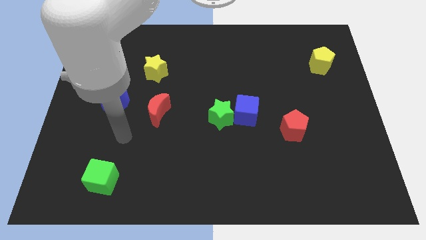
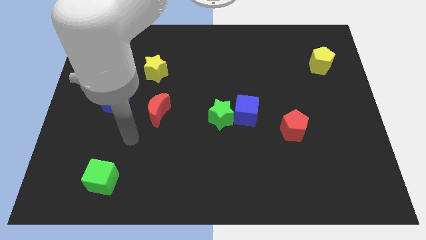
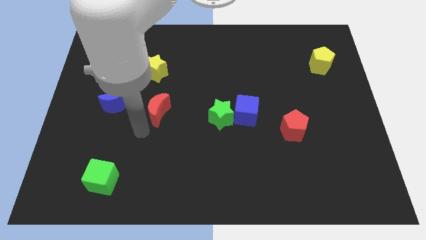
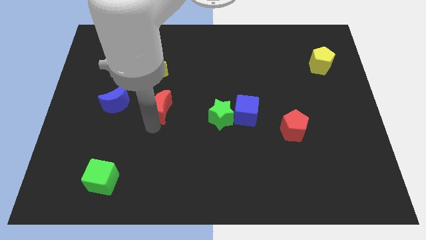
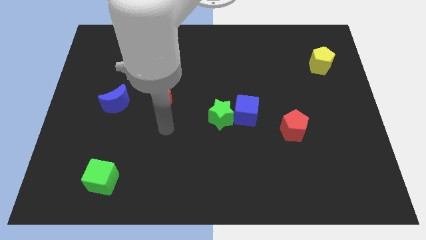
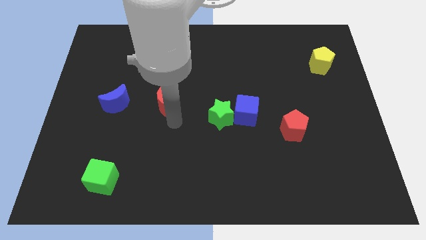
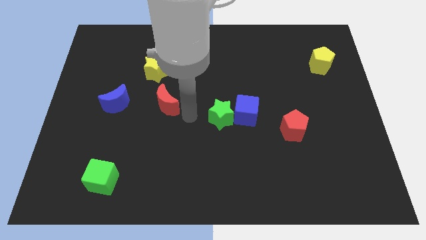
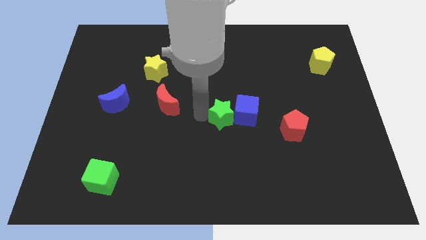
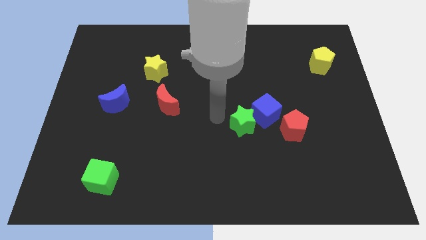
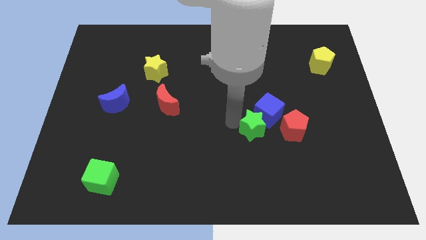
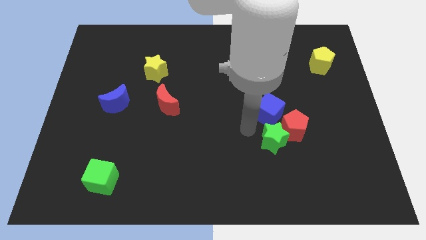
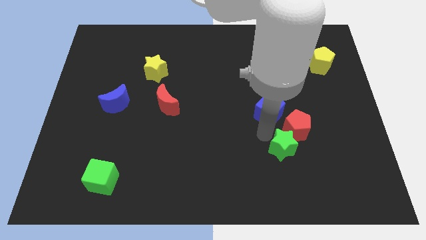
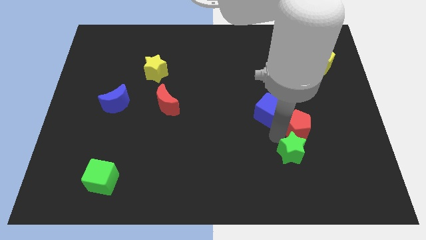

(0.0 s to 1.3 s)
separate the blue cube from the green star

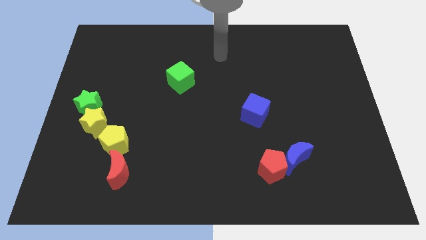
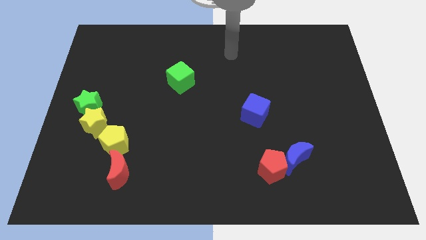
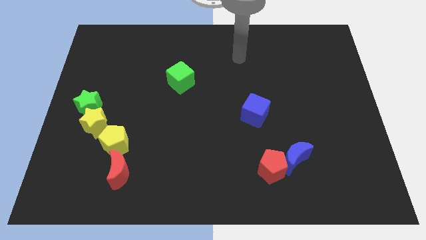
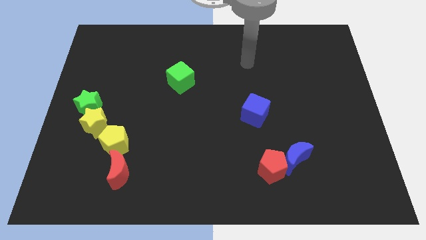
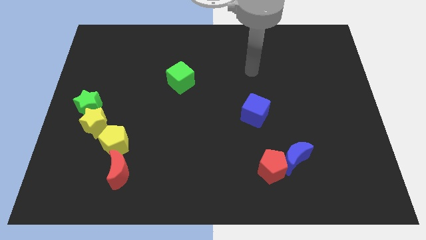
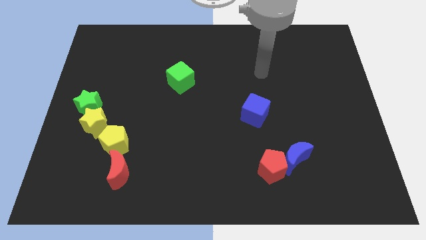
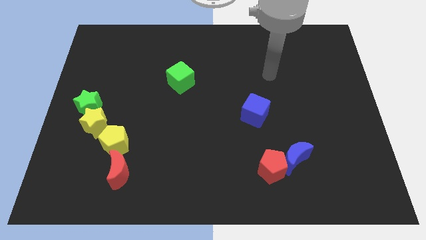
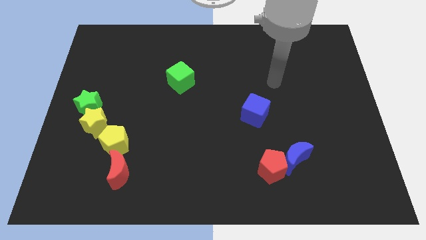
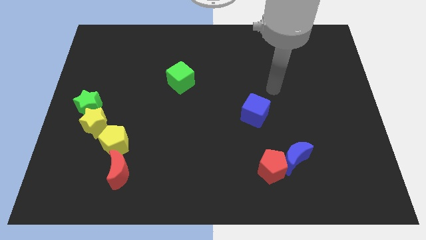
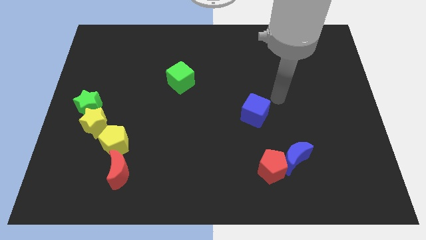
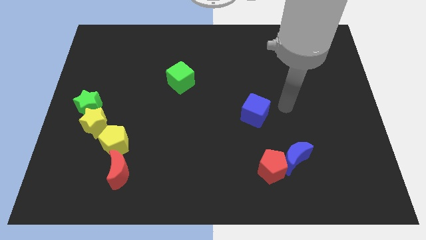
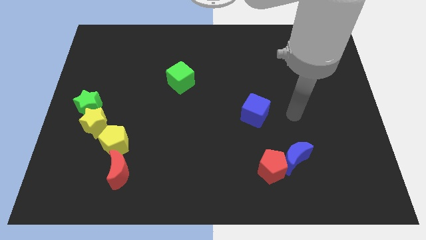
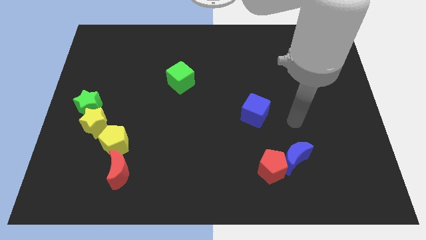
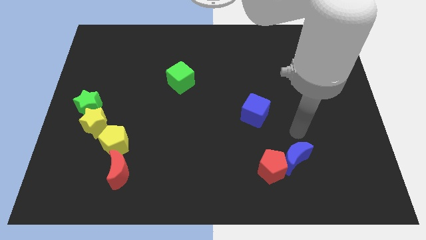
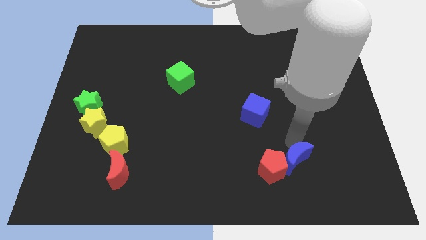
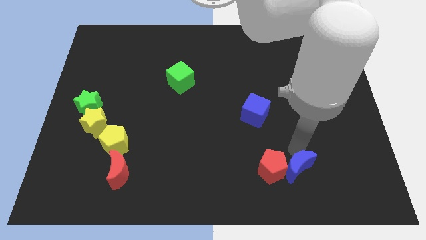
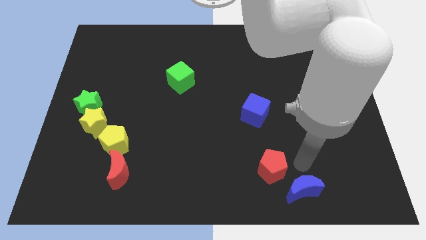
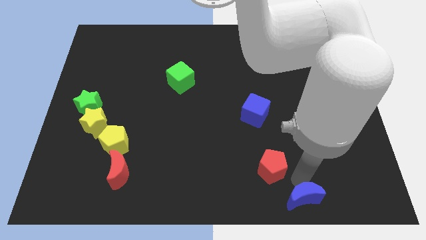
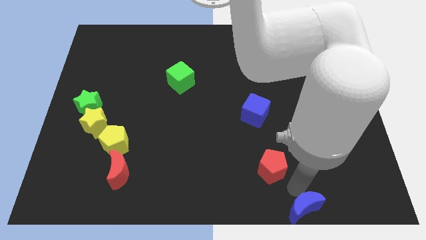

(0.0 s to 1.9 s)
separate the red pentagon from the blue moon

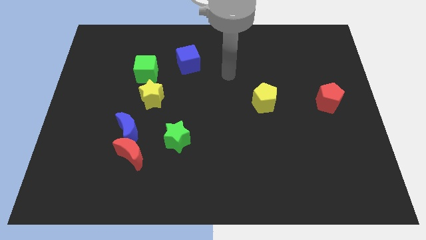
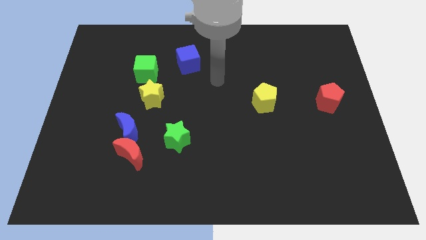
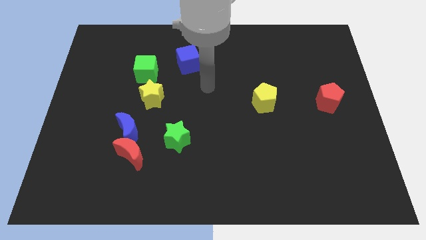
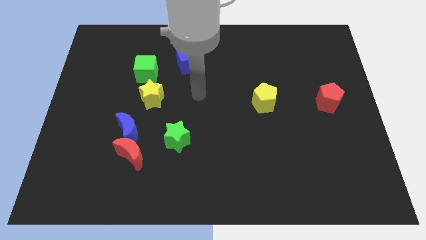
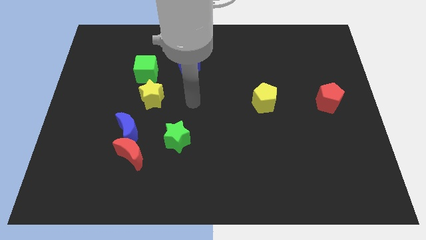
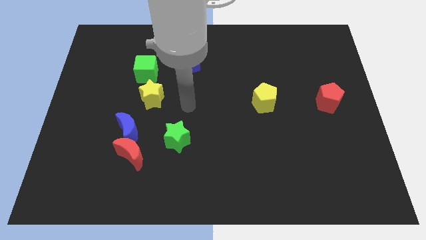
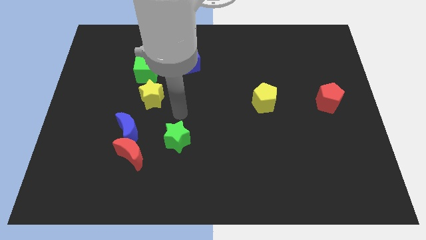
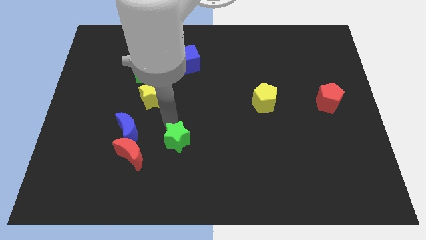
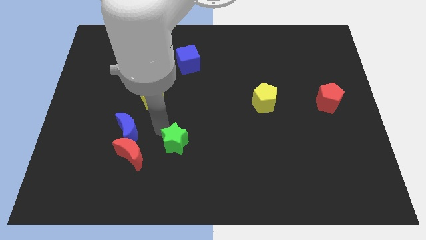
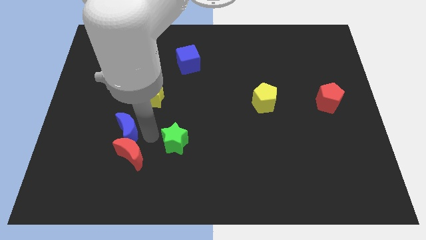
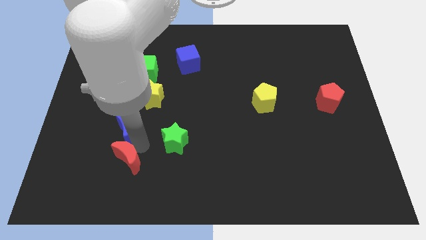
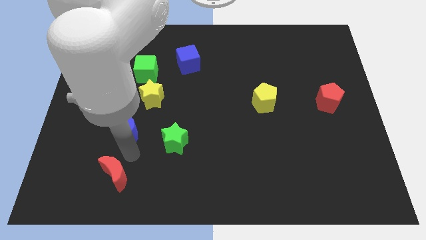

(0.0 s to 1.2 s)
pull the blue moon apart from the red moon

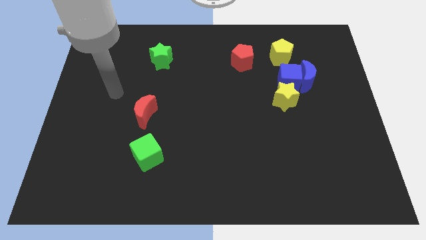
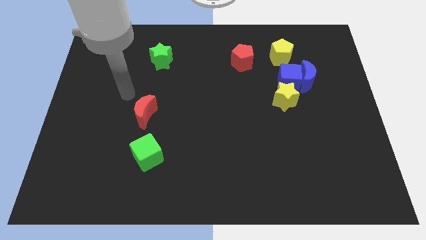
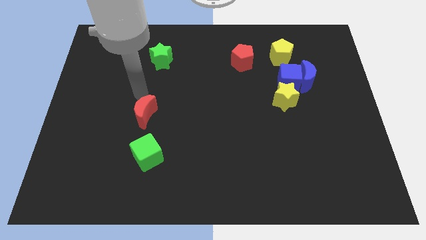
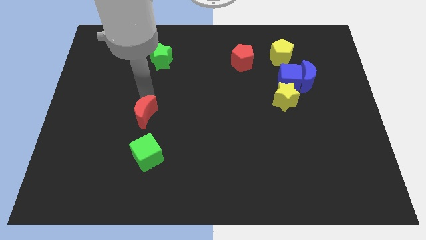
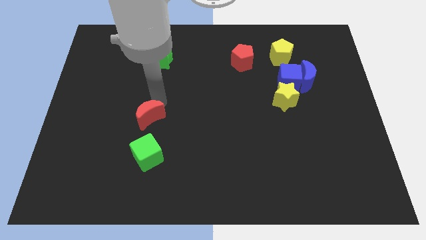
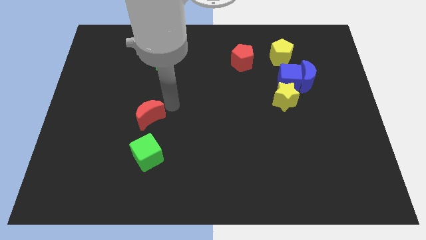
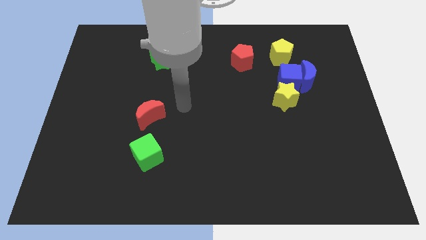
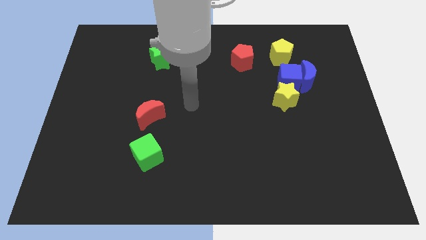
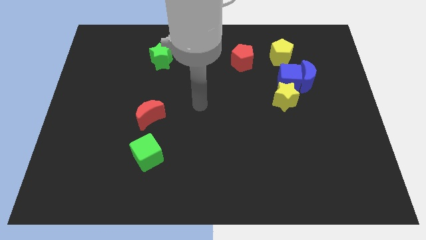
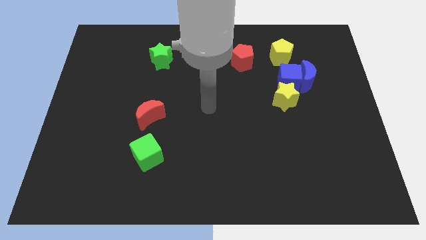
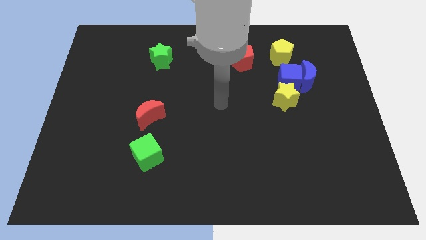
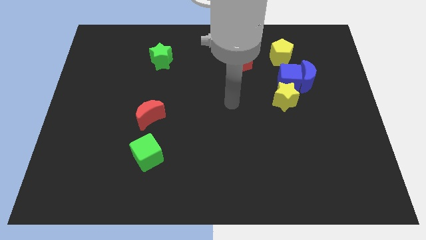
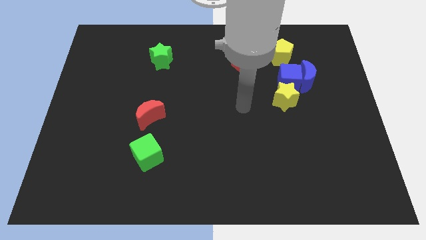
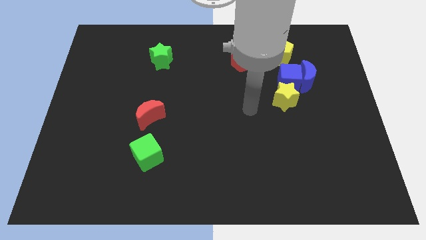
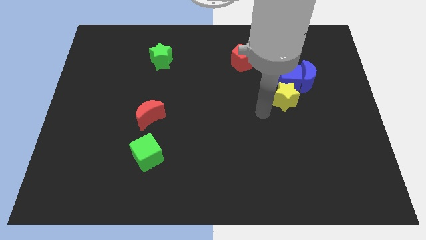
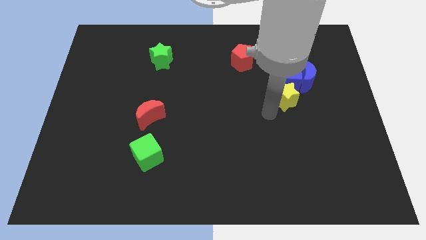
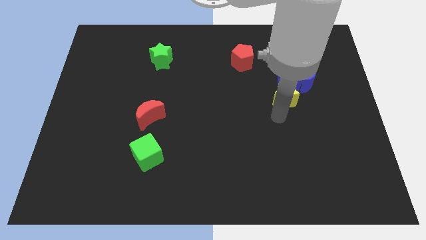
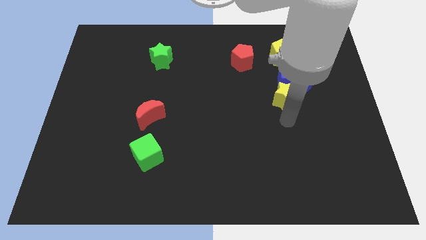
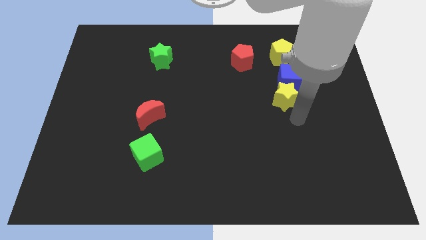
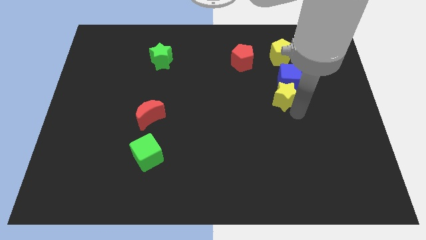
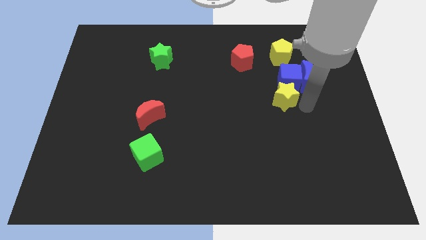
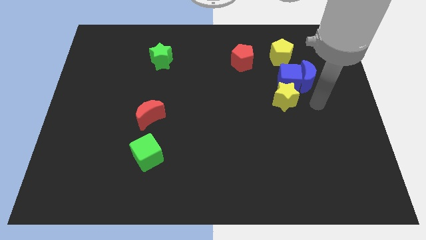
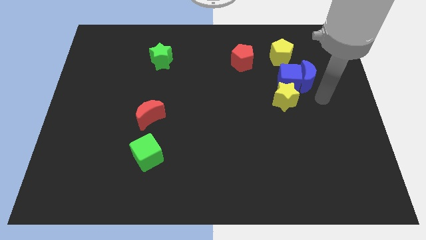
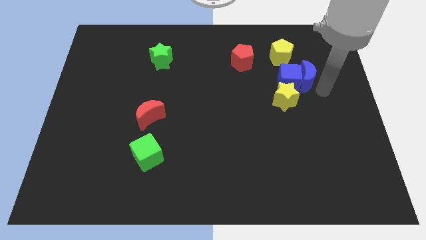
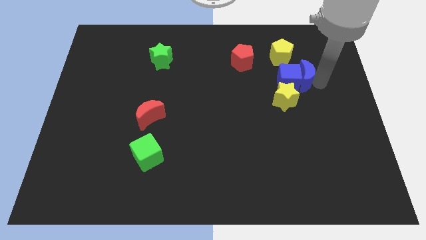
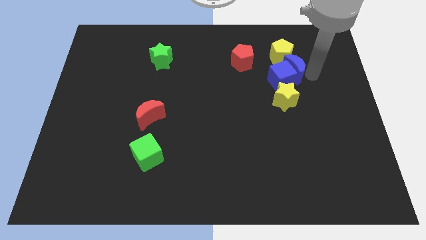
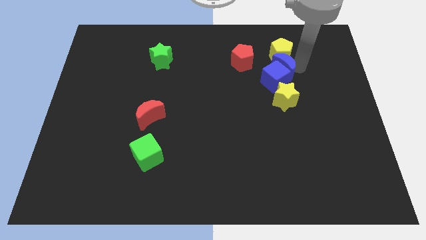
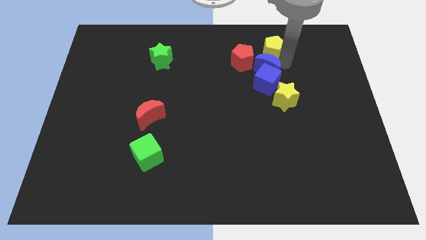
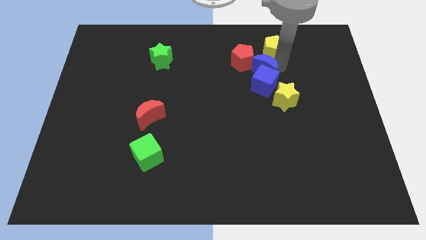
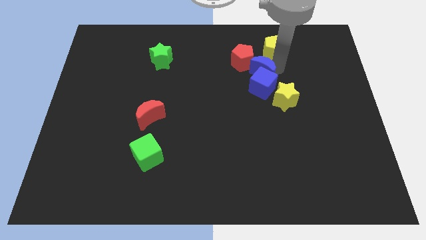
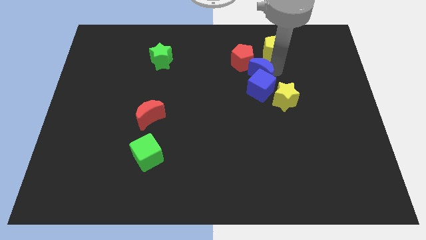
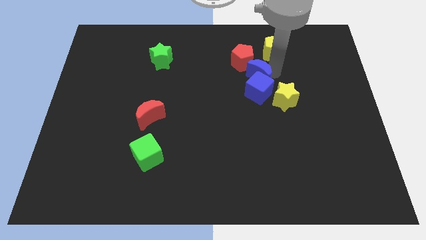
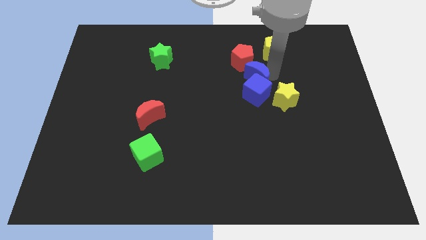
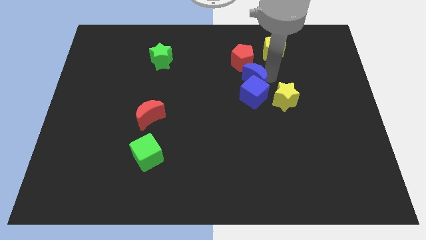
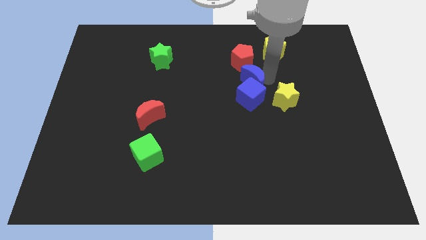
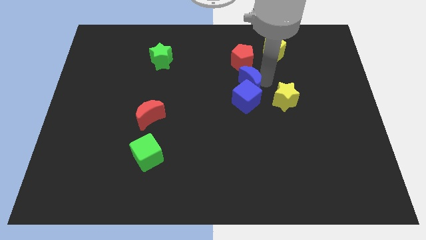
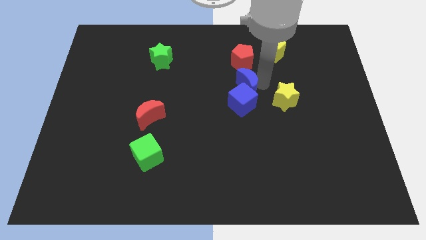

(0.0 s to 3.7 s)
separate the blue cube from the clump

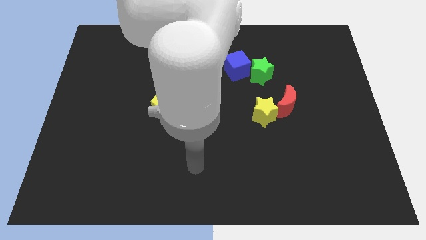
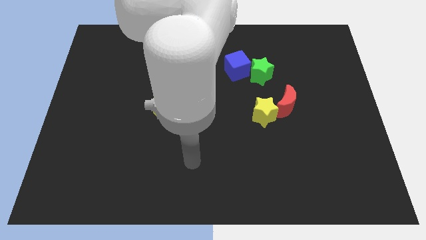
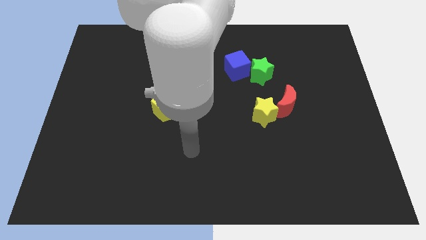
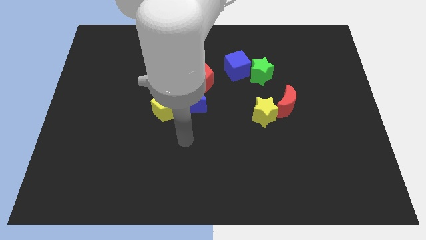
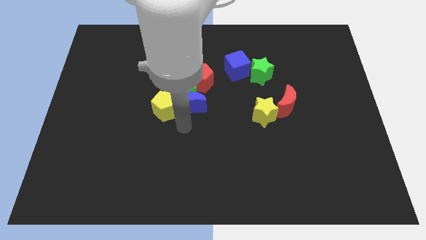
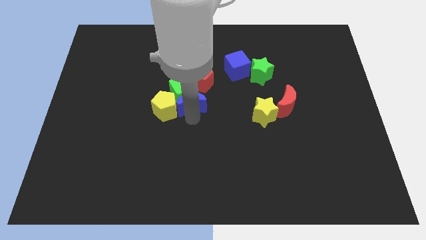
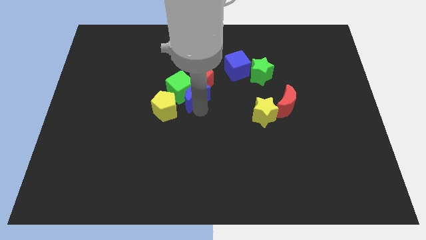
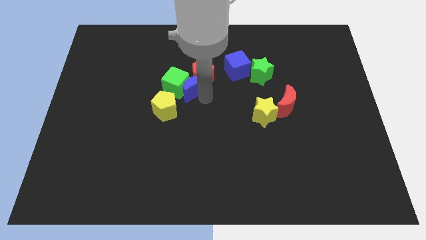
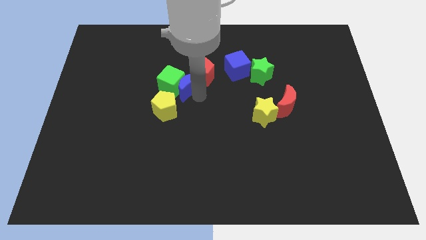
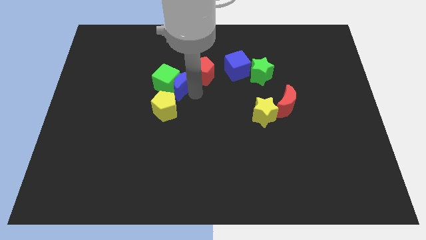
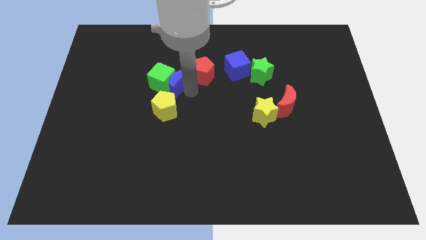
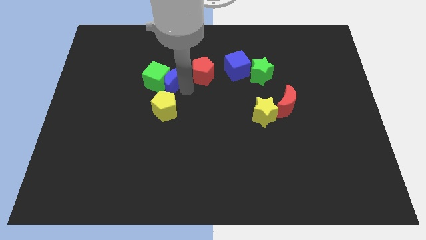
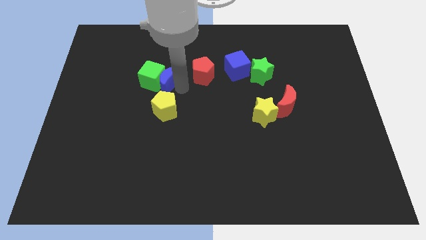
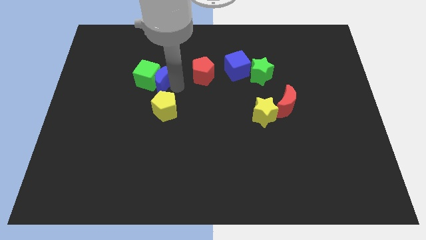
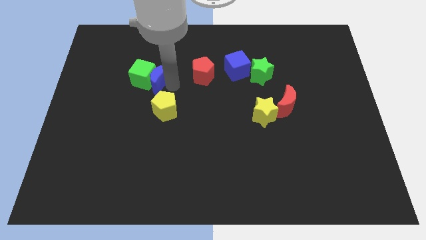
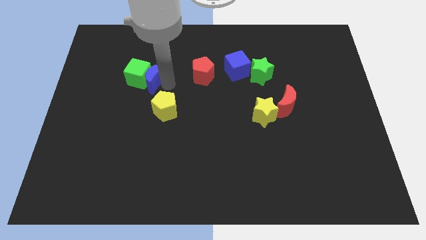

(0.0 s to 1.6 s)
pull the green cube apart from the blue moon, red pentagon, and yellow pentagon
